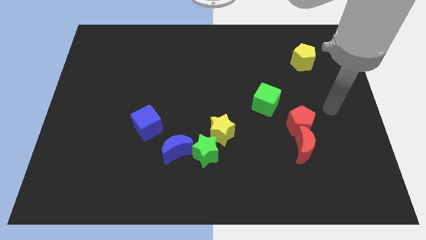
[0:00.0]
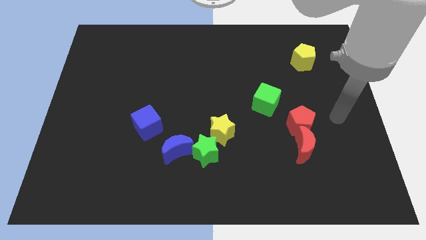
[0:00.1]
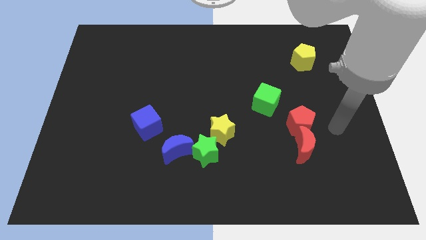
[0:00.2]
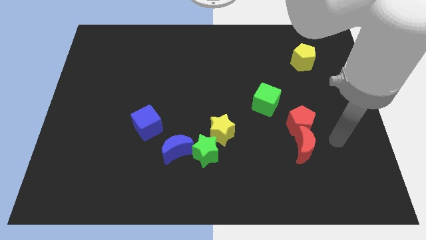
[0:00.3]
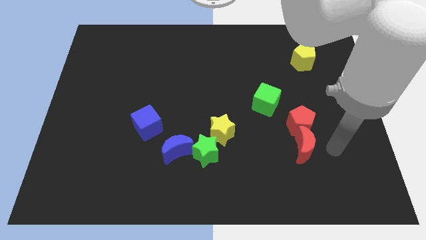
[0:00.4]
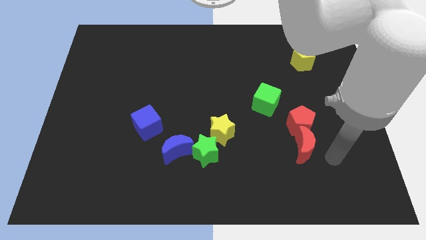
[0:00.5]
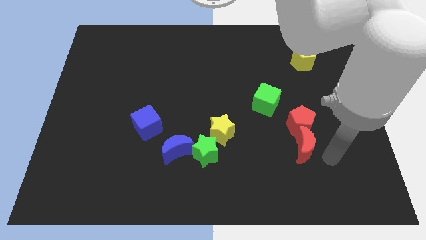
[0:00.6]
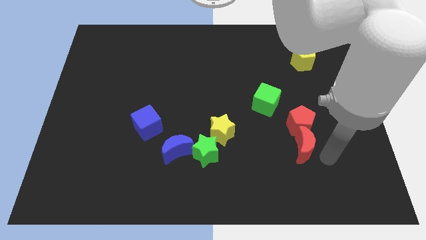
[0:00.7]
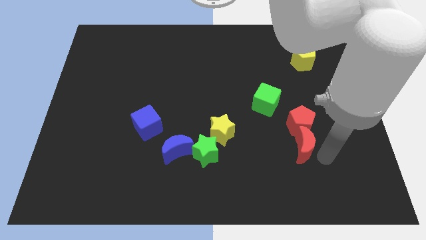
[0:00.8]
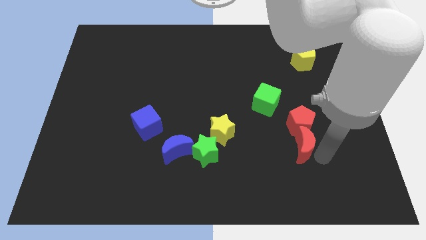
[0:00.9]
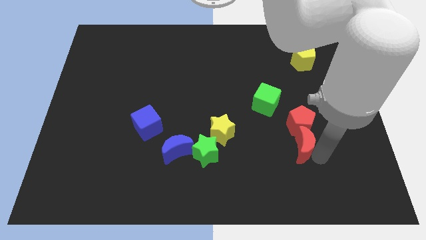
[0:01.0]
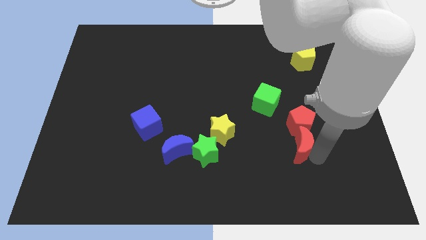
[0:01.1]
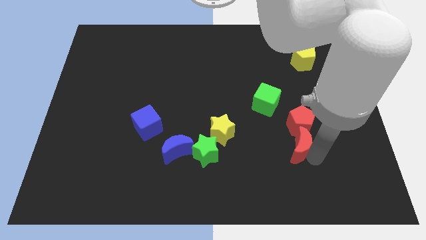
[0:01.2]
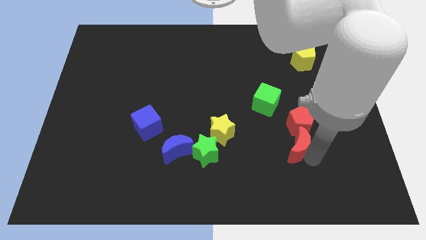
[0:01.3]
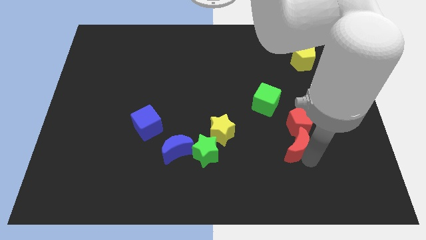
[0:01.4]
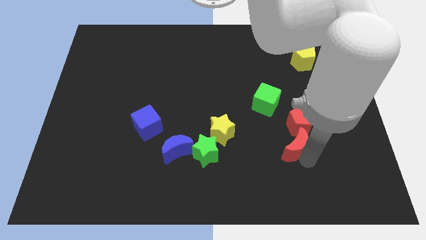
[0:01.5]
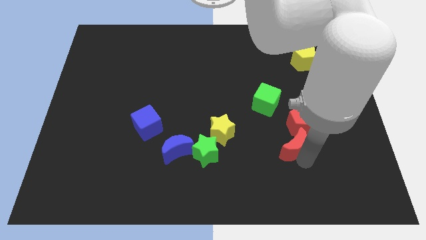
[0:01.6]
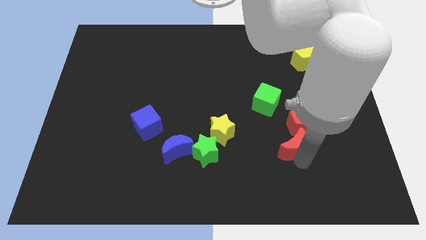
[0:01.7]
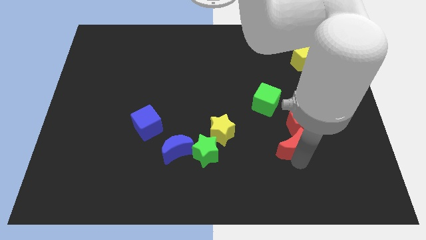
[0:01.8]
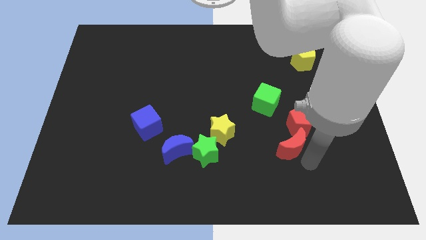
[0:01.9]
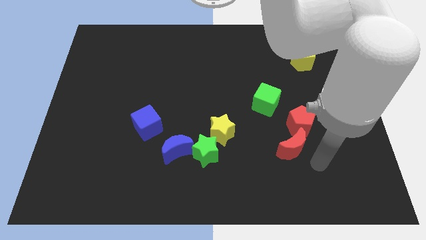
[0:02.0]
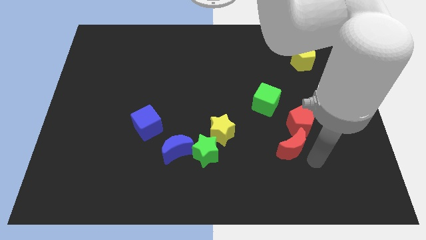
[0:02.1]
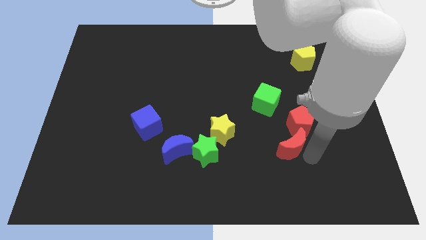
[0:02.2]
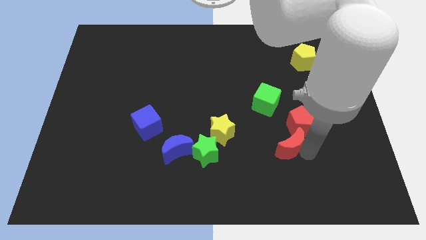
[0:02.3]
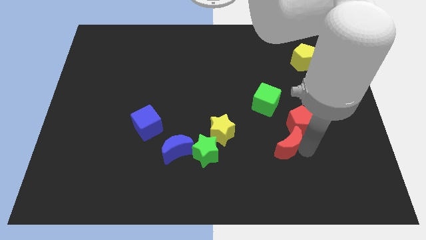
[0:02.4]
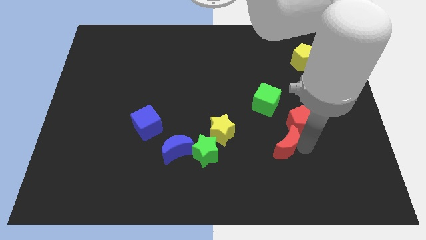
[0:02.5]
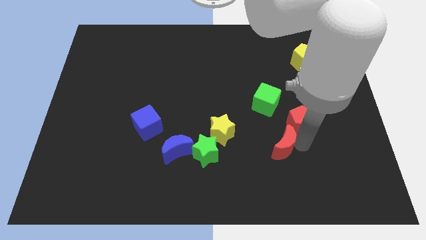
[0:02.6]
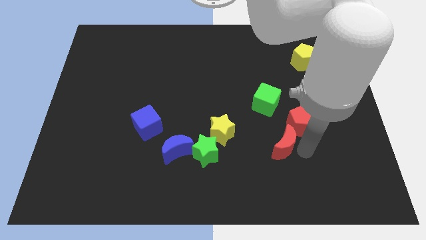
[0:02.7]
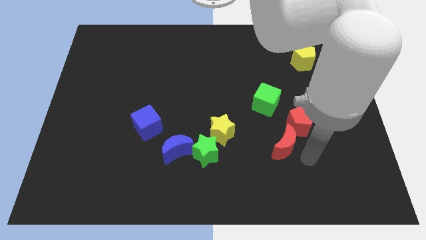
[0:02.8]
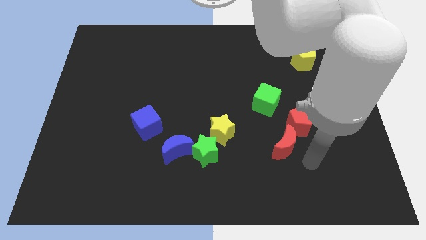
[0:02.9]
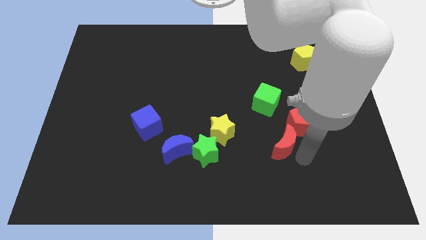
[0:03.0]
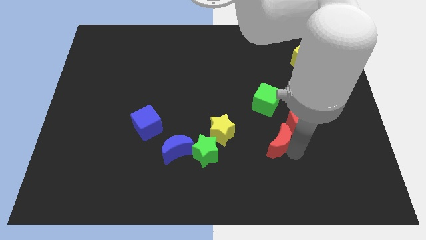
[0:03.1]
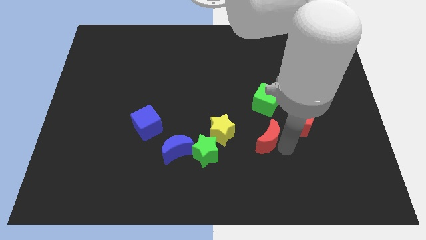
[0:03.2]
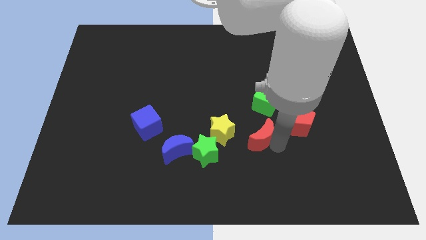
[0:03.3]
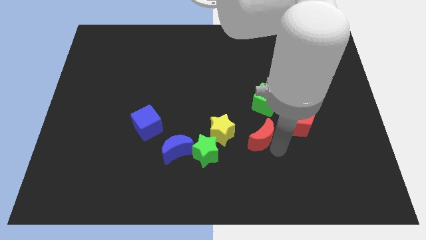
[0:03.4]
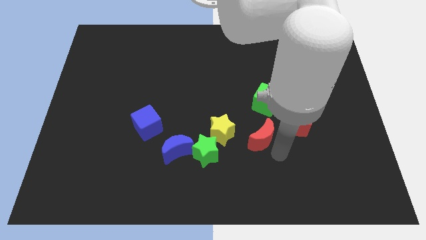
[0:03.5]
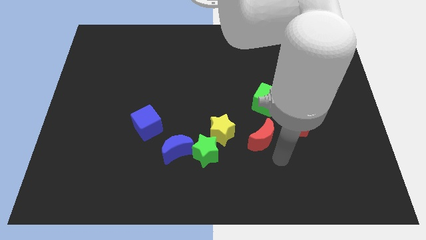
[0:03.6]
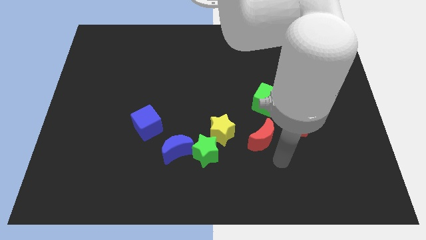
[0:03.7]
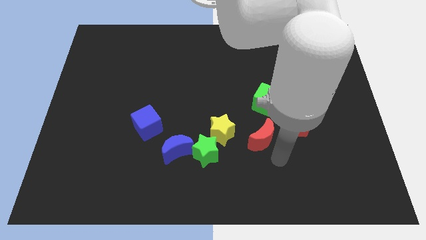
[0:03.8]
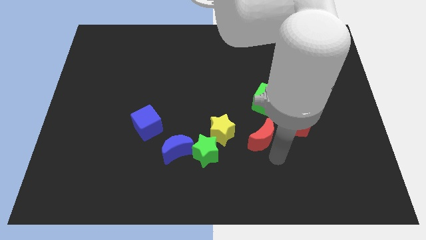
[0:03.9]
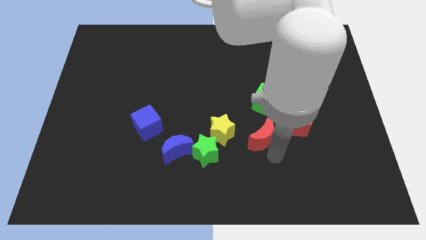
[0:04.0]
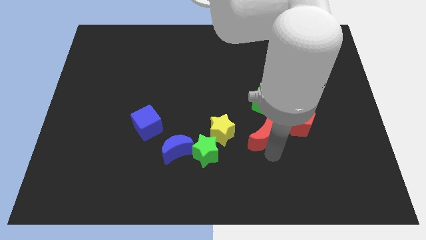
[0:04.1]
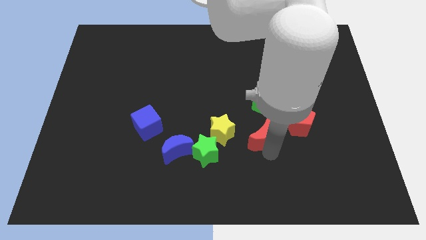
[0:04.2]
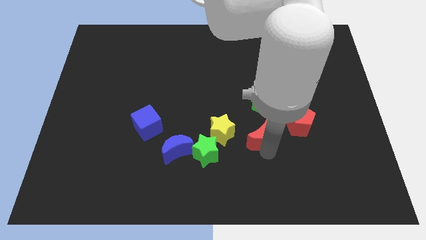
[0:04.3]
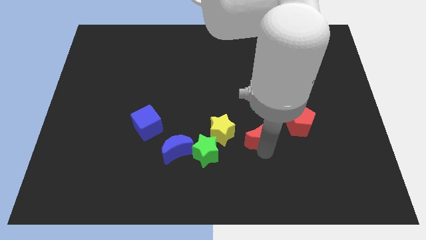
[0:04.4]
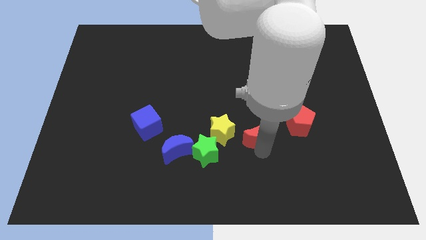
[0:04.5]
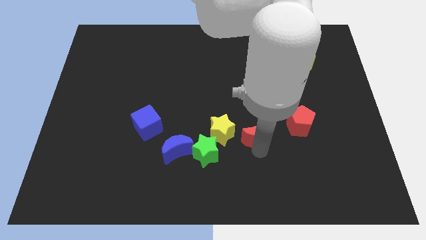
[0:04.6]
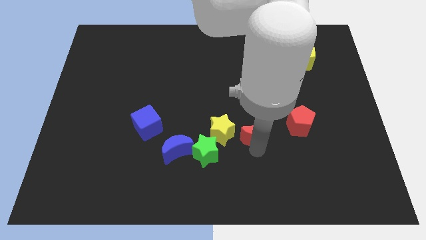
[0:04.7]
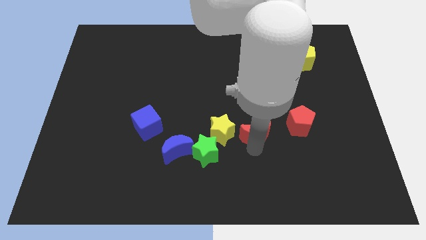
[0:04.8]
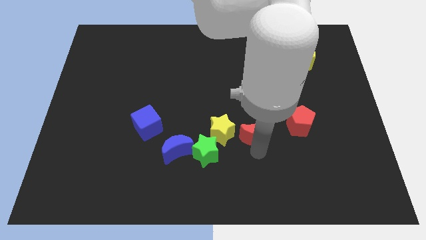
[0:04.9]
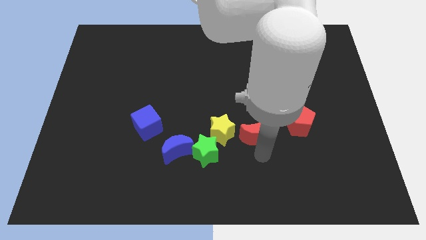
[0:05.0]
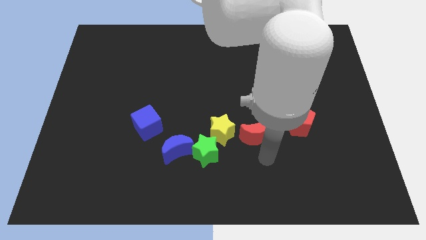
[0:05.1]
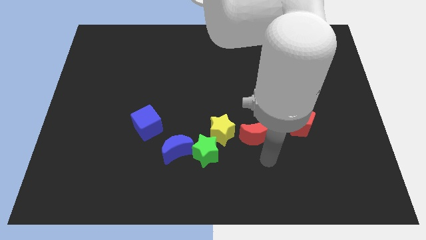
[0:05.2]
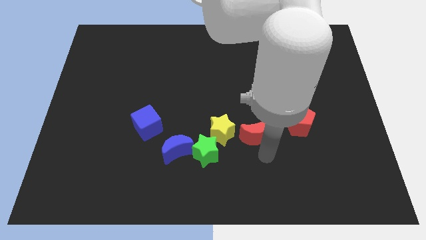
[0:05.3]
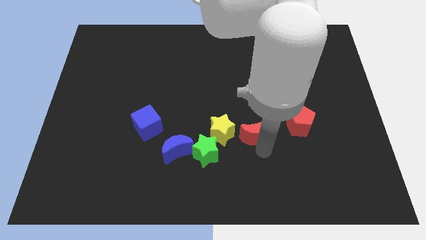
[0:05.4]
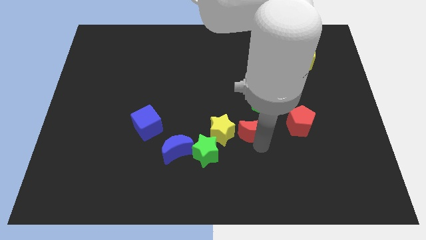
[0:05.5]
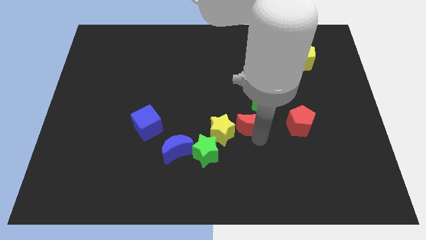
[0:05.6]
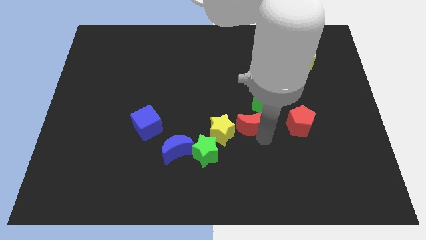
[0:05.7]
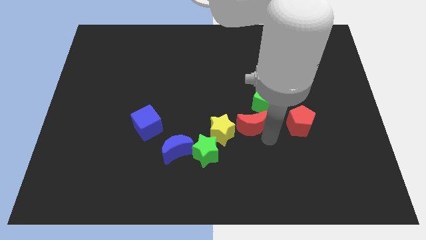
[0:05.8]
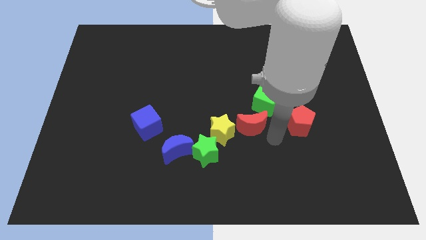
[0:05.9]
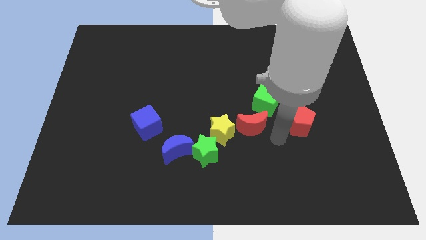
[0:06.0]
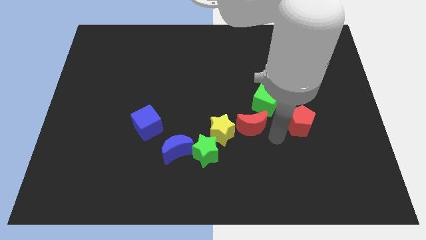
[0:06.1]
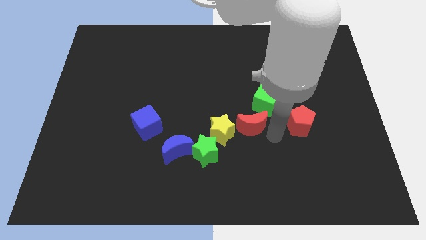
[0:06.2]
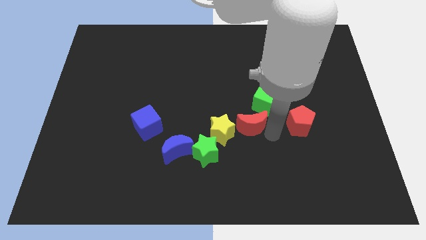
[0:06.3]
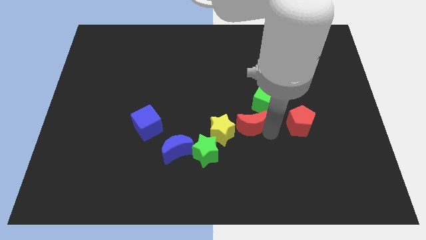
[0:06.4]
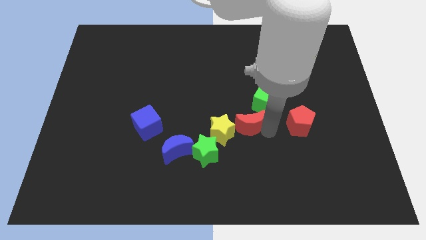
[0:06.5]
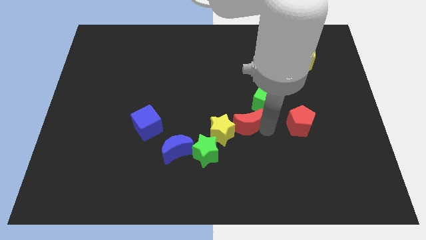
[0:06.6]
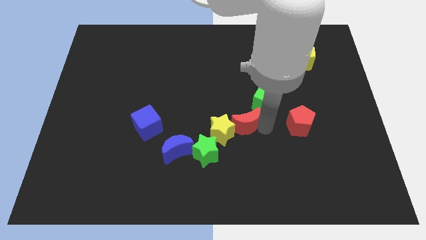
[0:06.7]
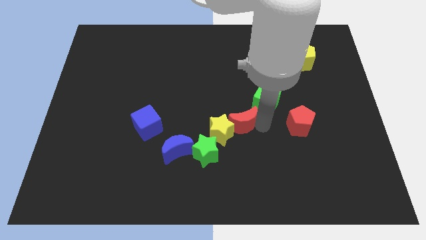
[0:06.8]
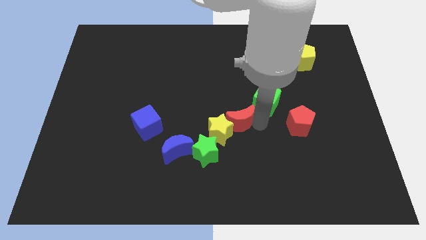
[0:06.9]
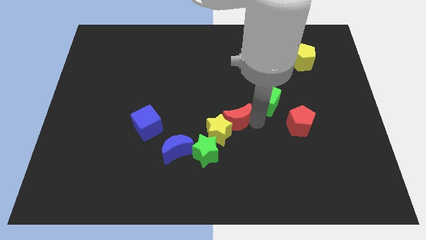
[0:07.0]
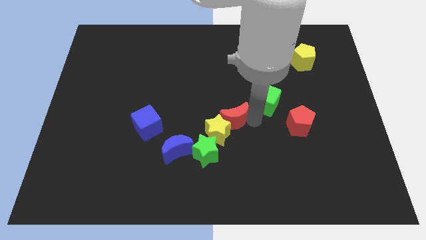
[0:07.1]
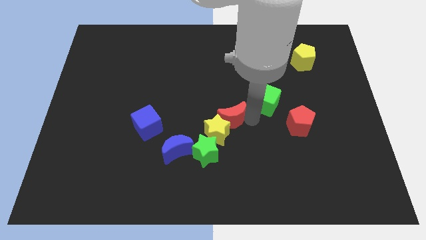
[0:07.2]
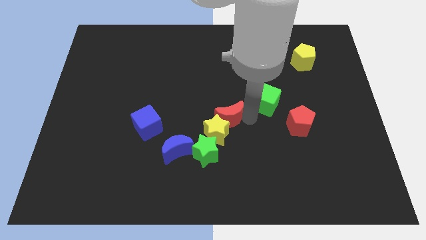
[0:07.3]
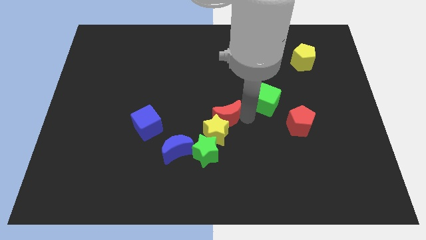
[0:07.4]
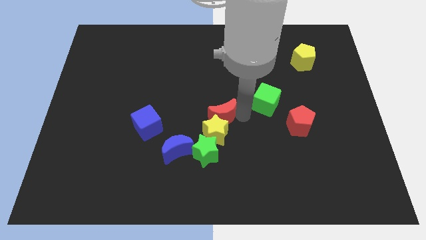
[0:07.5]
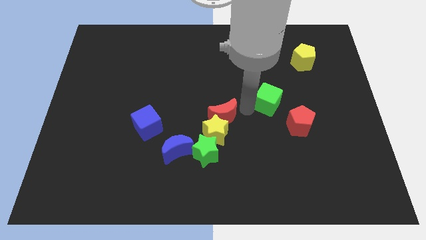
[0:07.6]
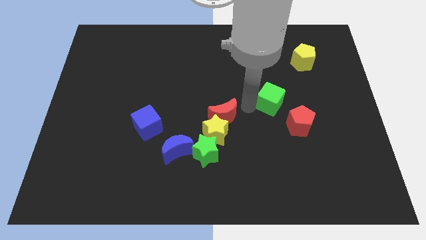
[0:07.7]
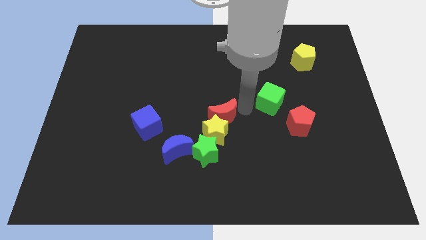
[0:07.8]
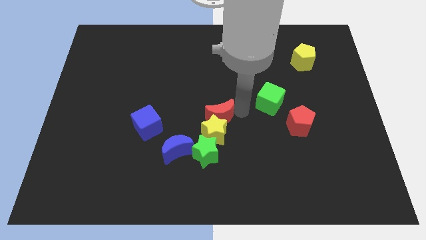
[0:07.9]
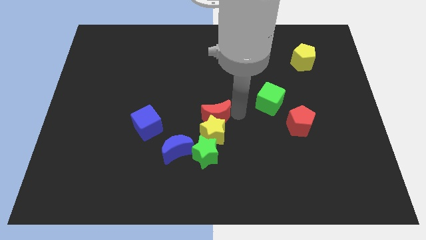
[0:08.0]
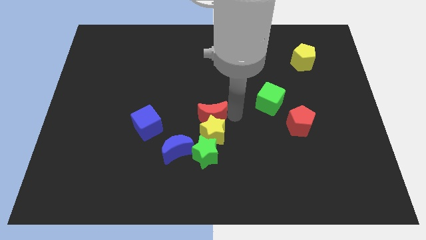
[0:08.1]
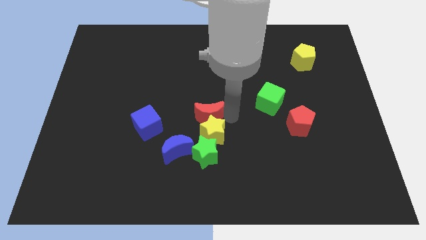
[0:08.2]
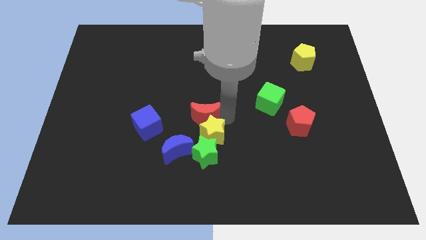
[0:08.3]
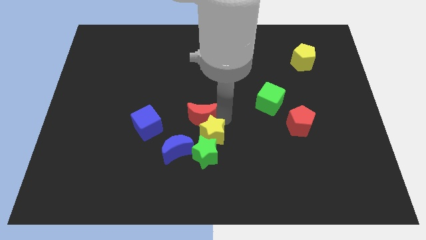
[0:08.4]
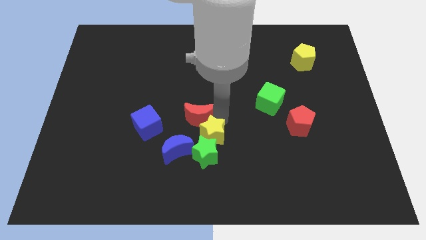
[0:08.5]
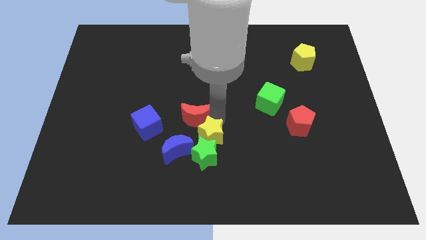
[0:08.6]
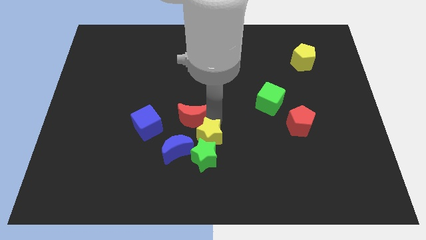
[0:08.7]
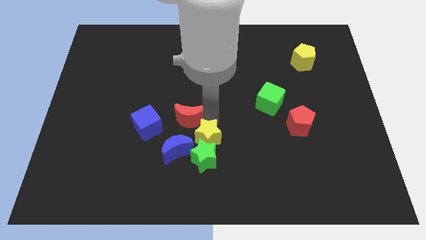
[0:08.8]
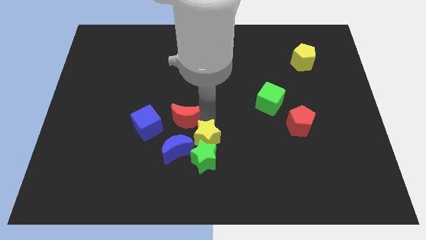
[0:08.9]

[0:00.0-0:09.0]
move the red moon diagonally up and to the left of the green star
